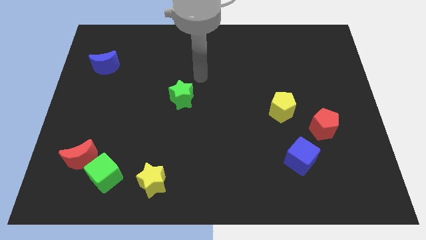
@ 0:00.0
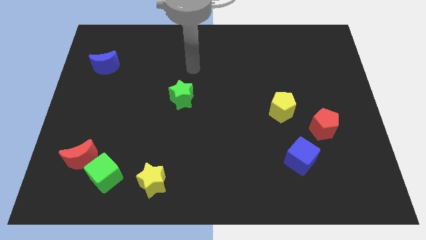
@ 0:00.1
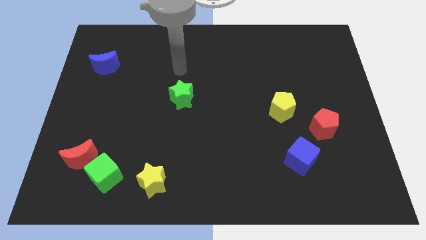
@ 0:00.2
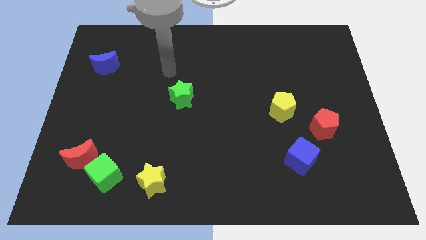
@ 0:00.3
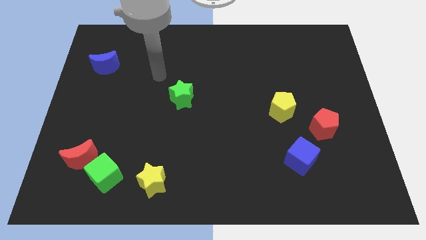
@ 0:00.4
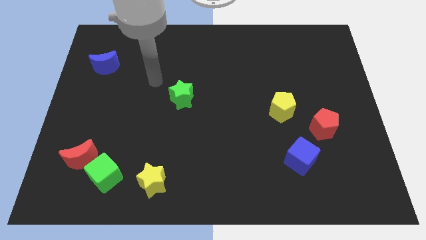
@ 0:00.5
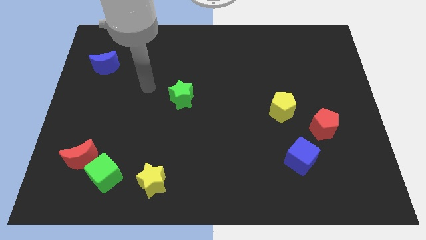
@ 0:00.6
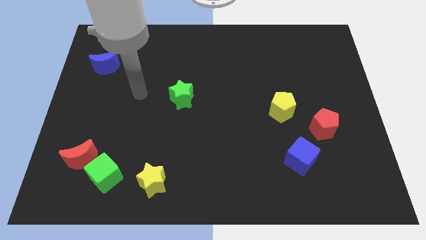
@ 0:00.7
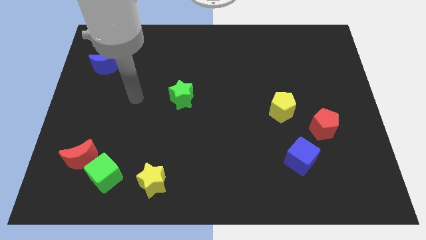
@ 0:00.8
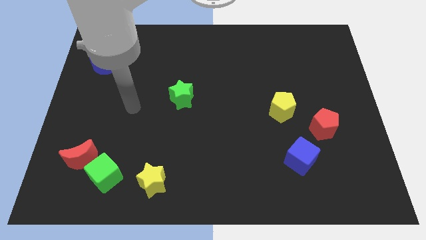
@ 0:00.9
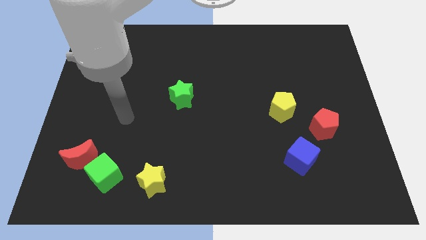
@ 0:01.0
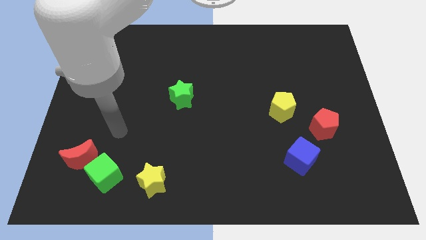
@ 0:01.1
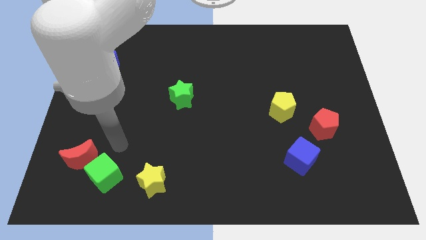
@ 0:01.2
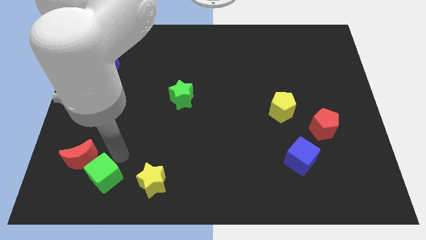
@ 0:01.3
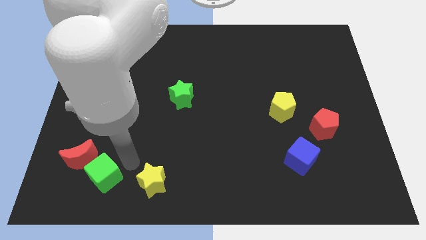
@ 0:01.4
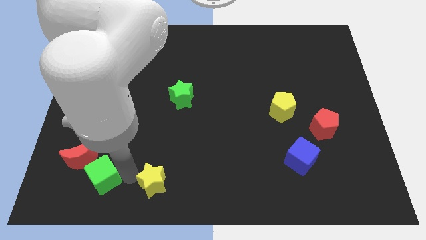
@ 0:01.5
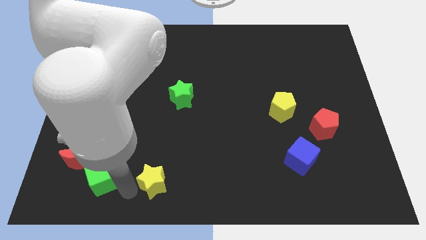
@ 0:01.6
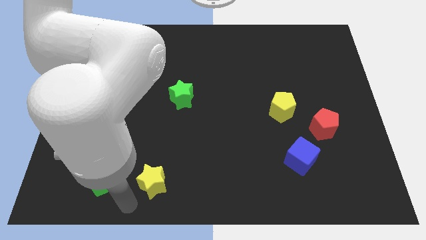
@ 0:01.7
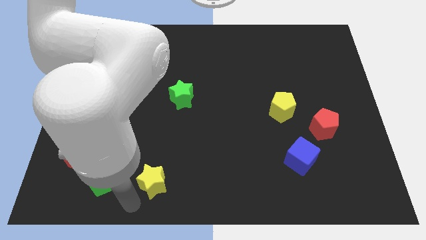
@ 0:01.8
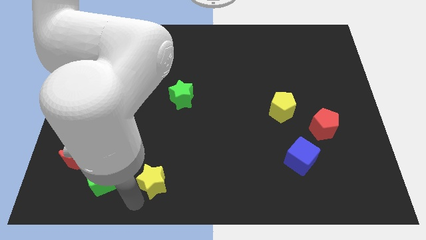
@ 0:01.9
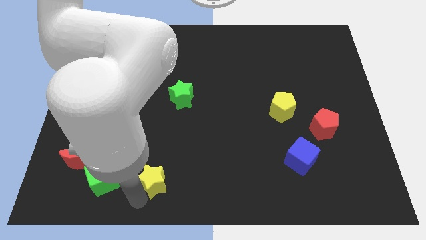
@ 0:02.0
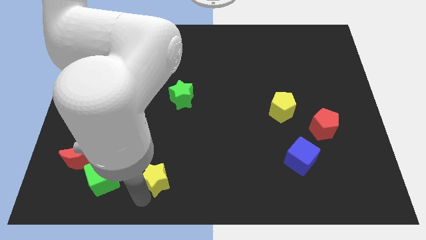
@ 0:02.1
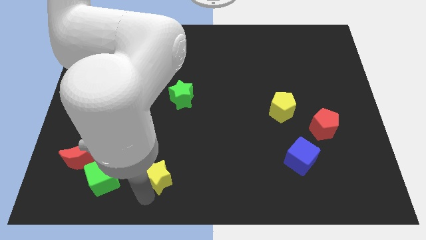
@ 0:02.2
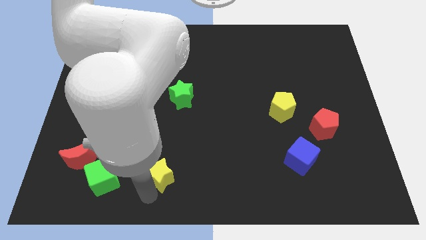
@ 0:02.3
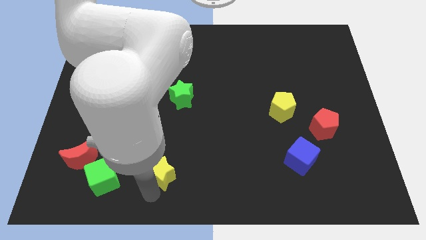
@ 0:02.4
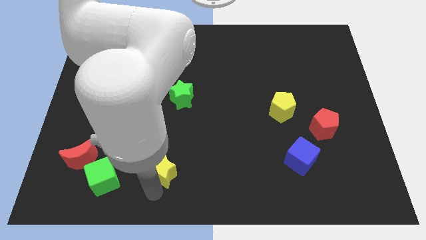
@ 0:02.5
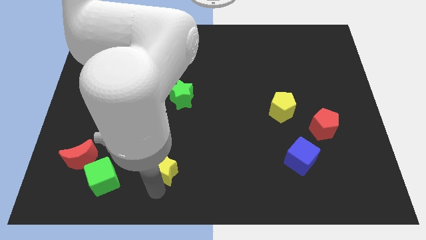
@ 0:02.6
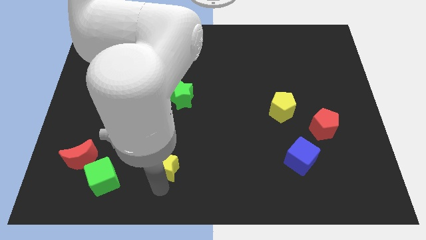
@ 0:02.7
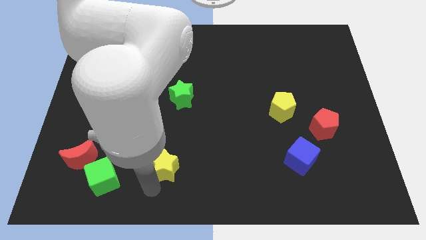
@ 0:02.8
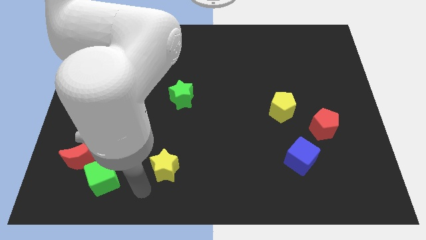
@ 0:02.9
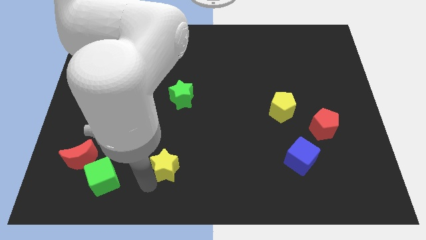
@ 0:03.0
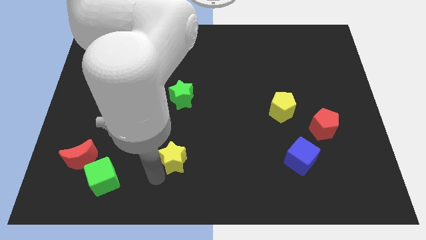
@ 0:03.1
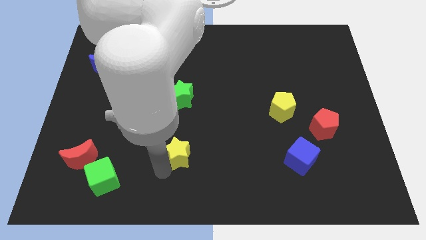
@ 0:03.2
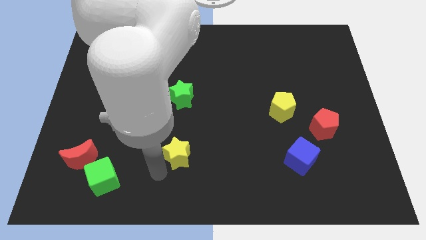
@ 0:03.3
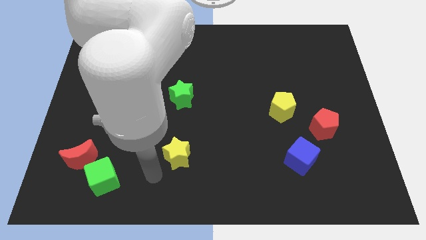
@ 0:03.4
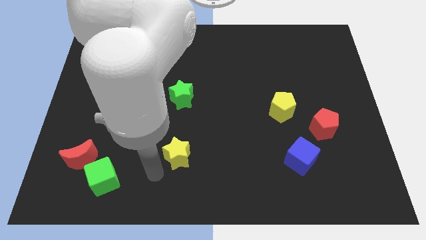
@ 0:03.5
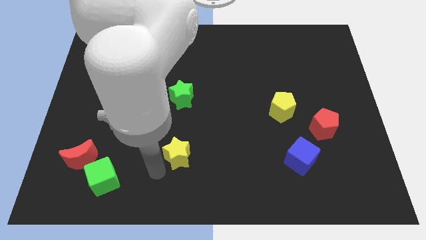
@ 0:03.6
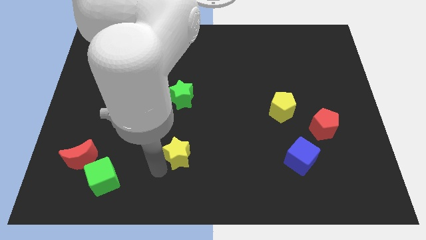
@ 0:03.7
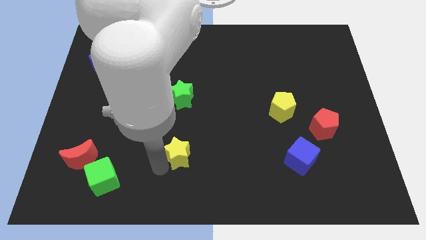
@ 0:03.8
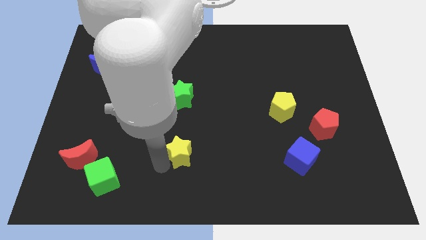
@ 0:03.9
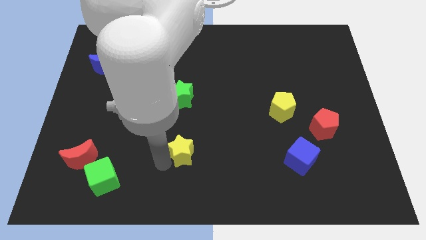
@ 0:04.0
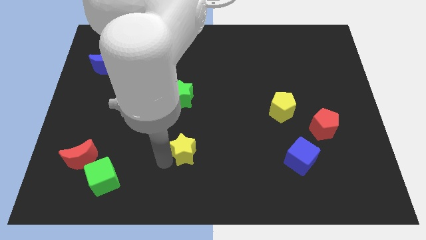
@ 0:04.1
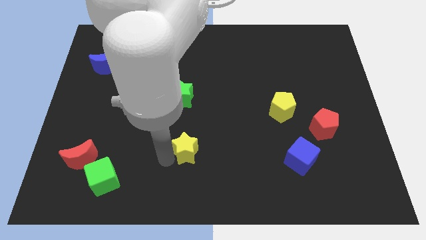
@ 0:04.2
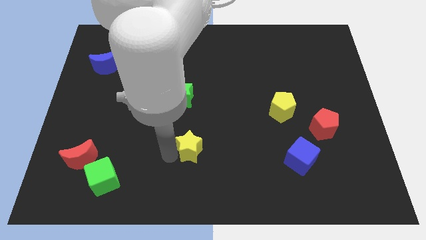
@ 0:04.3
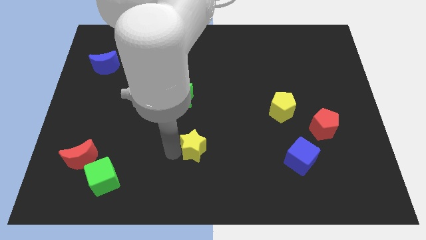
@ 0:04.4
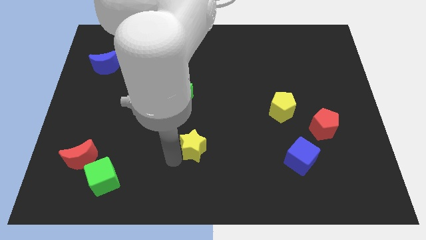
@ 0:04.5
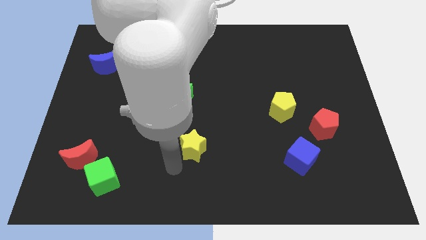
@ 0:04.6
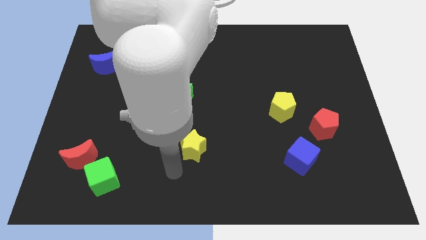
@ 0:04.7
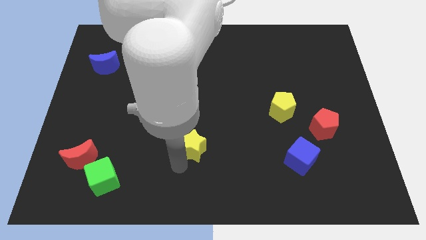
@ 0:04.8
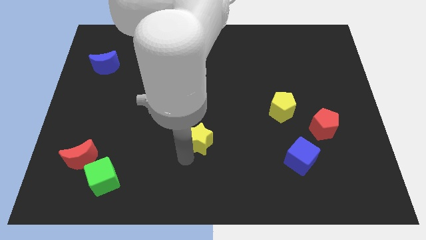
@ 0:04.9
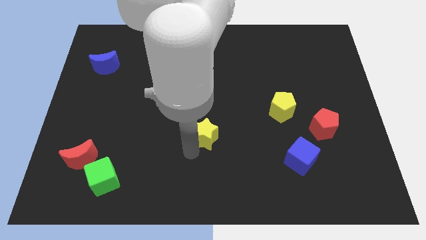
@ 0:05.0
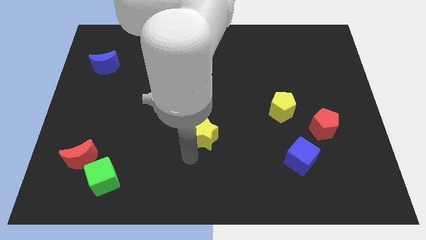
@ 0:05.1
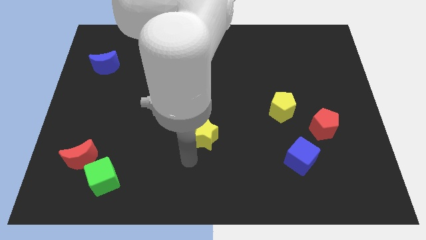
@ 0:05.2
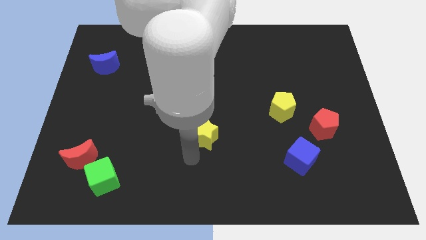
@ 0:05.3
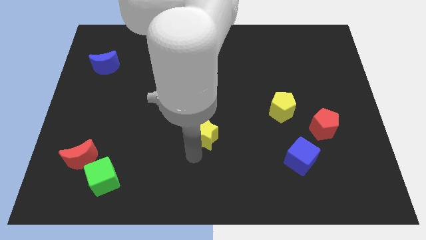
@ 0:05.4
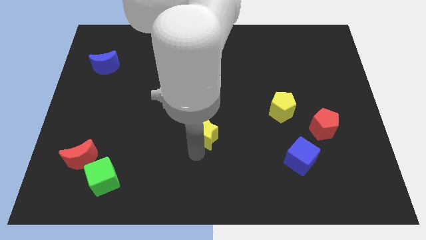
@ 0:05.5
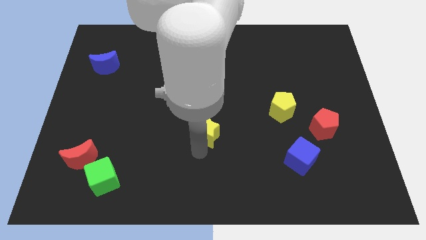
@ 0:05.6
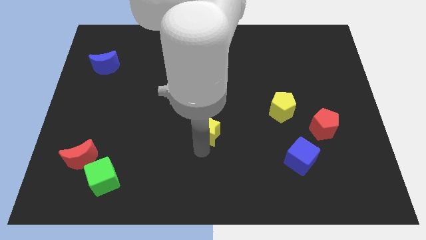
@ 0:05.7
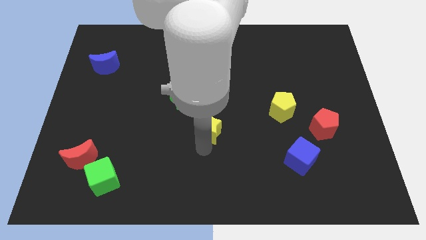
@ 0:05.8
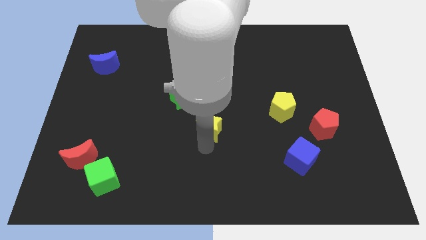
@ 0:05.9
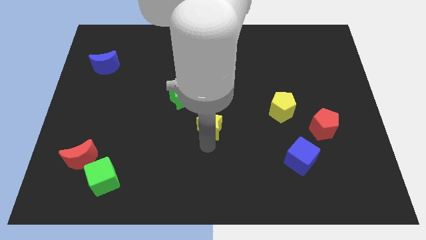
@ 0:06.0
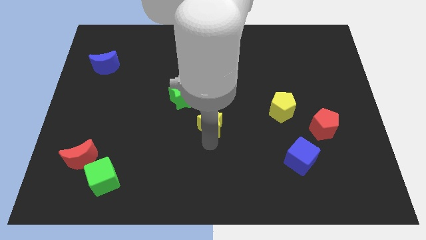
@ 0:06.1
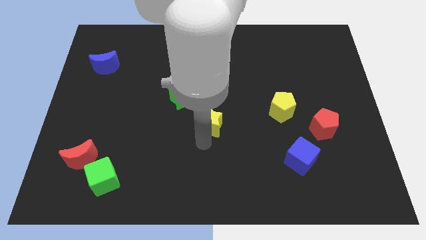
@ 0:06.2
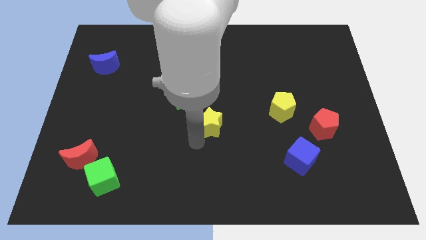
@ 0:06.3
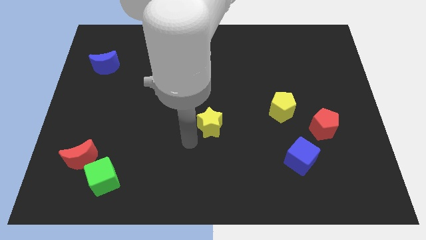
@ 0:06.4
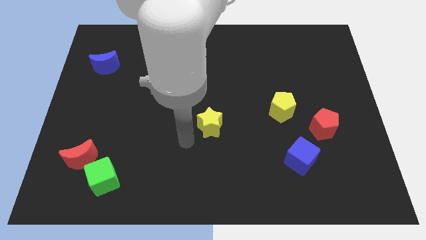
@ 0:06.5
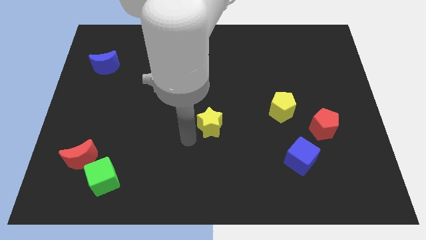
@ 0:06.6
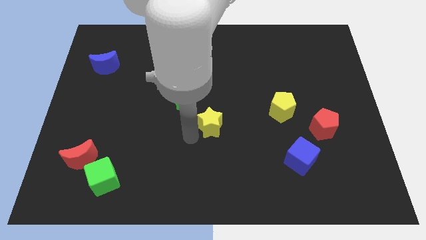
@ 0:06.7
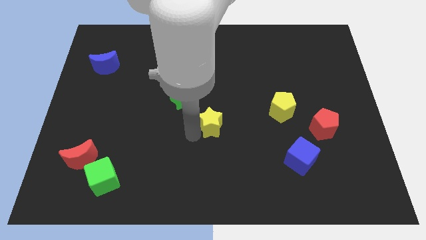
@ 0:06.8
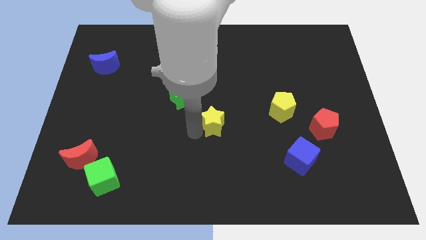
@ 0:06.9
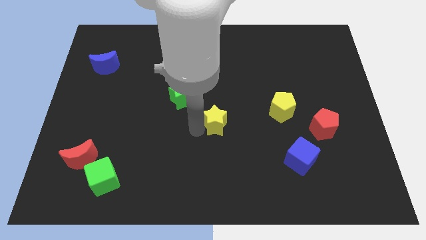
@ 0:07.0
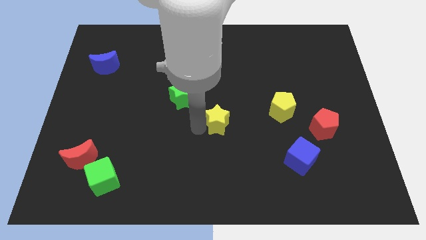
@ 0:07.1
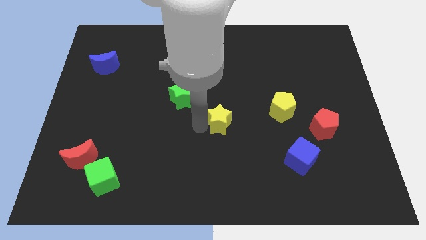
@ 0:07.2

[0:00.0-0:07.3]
push the yellow star up and then right

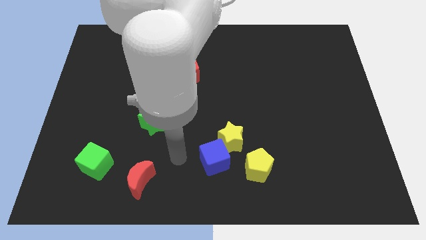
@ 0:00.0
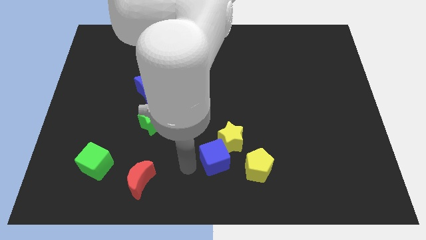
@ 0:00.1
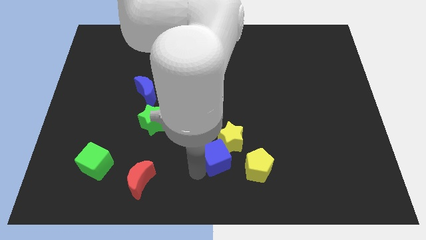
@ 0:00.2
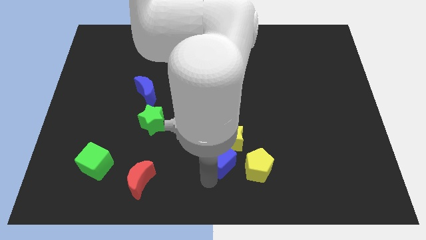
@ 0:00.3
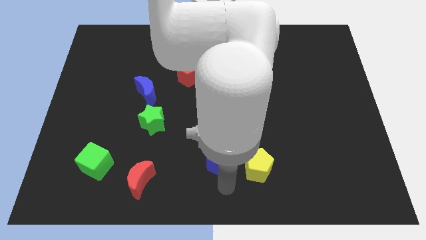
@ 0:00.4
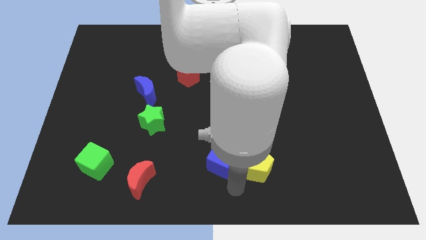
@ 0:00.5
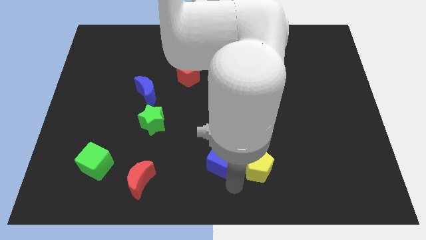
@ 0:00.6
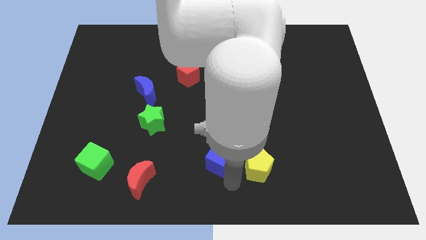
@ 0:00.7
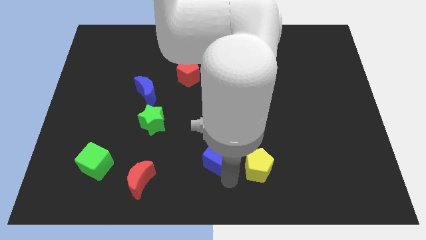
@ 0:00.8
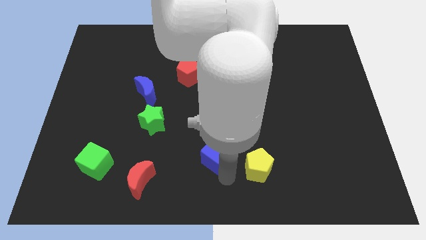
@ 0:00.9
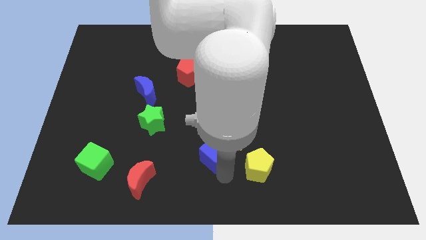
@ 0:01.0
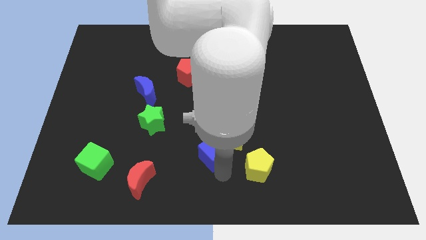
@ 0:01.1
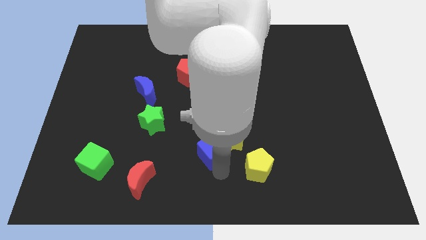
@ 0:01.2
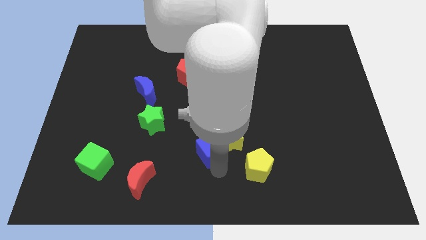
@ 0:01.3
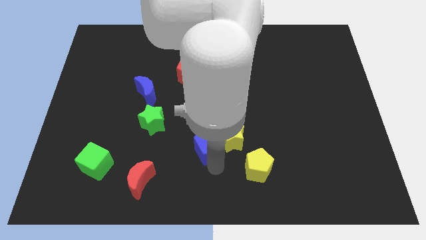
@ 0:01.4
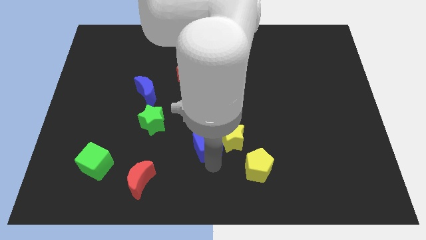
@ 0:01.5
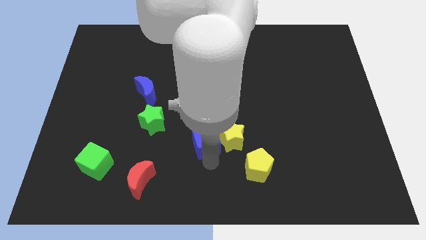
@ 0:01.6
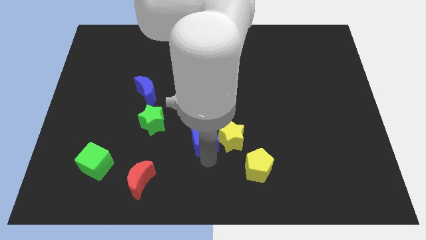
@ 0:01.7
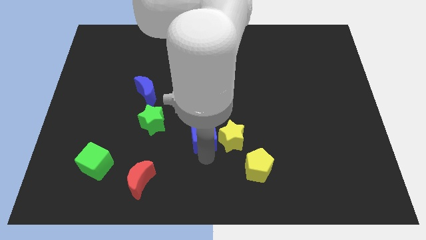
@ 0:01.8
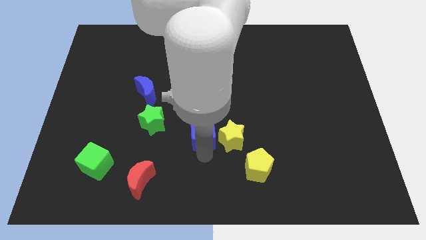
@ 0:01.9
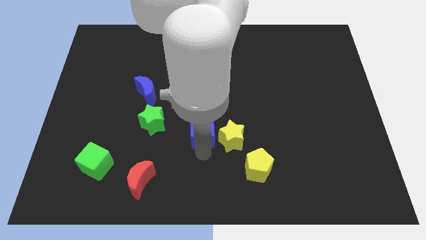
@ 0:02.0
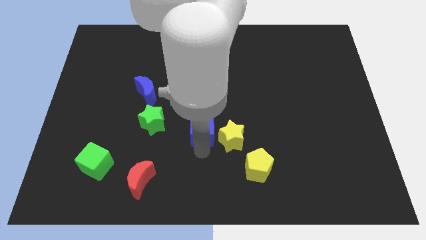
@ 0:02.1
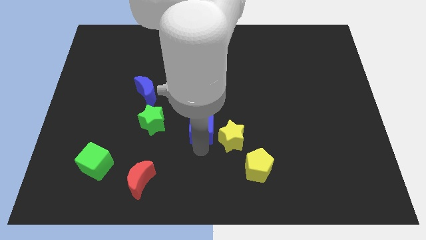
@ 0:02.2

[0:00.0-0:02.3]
move the blue cube a bit up
